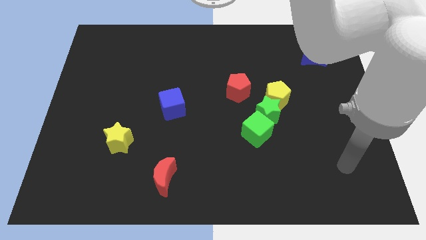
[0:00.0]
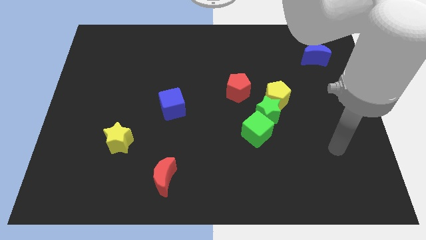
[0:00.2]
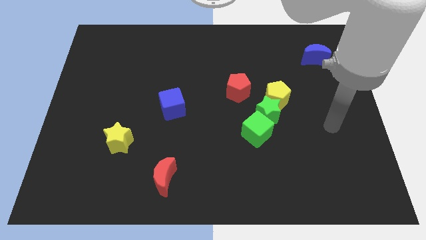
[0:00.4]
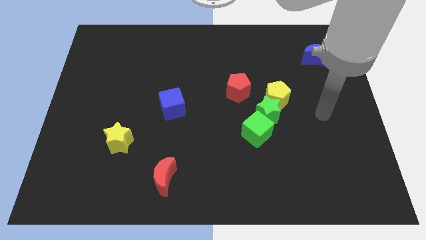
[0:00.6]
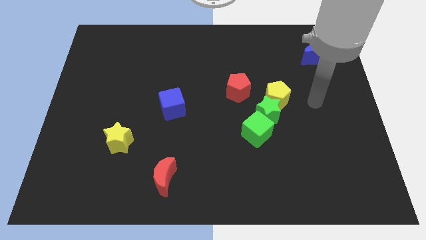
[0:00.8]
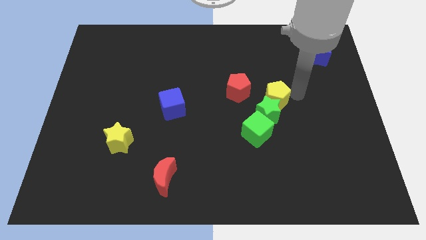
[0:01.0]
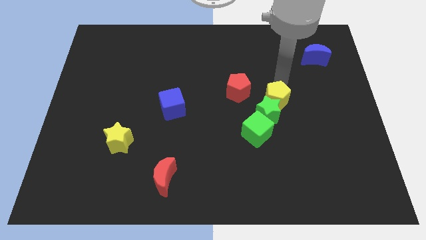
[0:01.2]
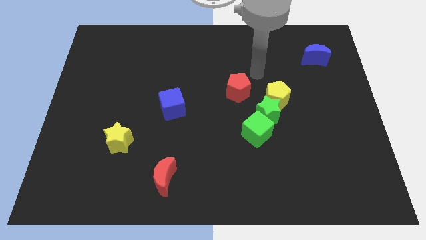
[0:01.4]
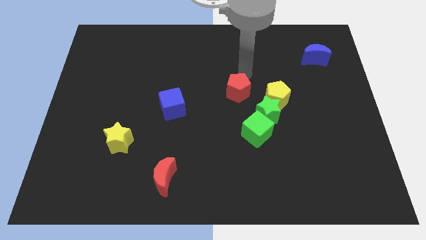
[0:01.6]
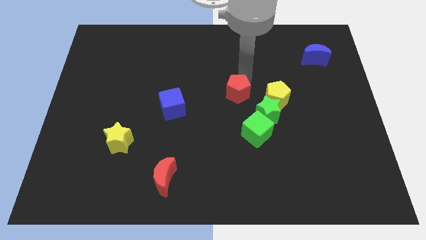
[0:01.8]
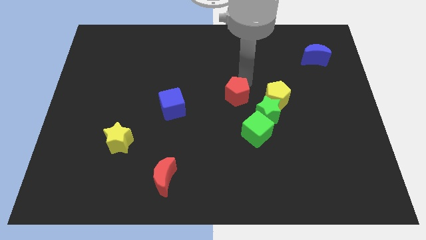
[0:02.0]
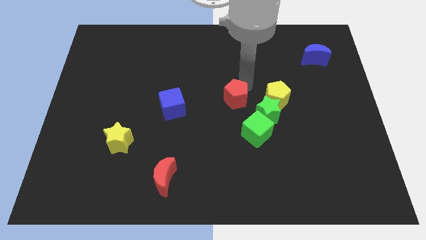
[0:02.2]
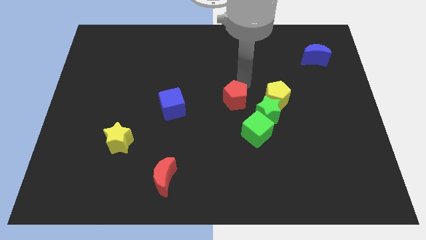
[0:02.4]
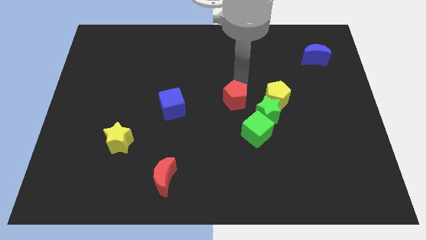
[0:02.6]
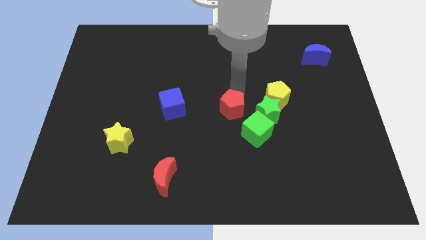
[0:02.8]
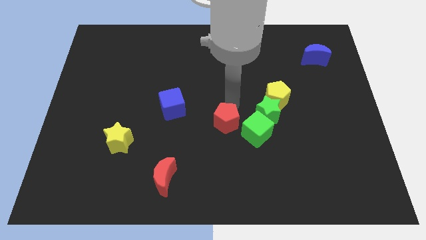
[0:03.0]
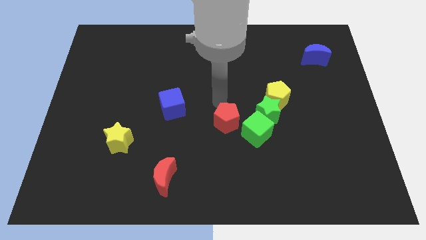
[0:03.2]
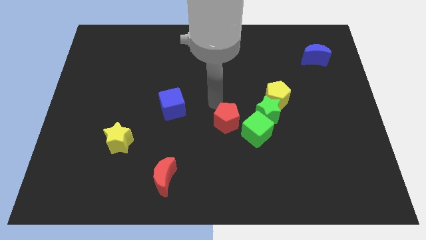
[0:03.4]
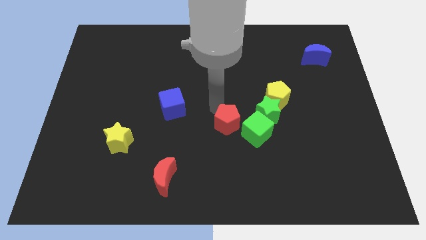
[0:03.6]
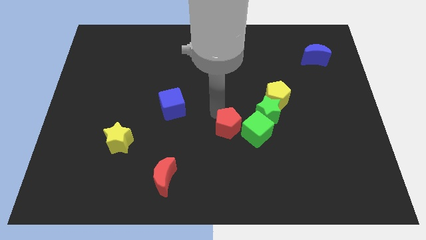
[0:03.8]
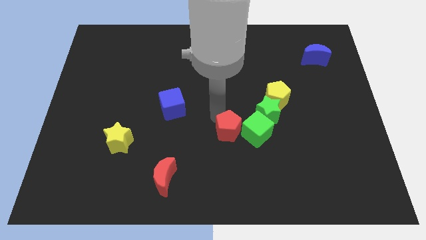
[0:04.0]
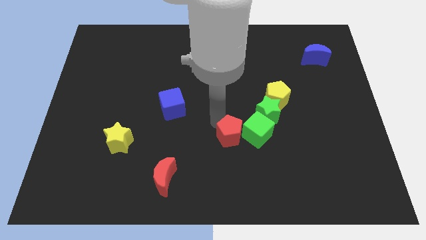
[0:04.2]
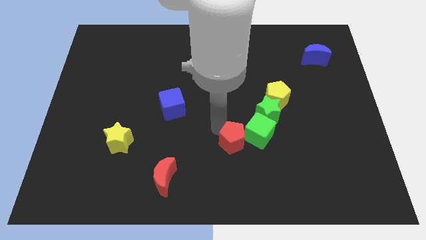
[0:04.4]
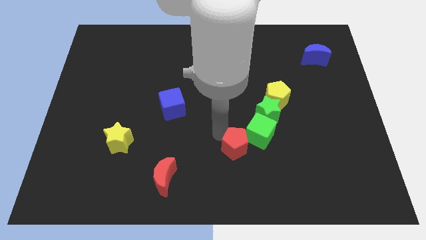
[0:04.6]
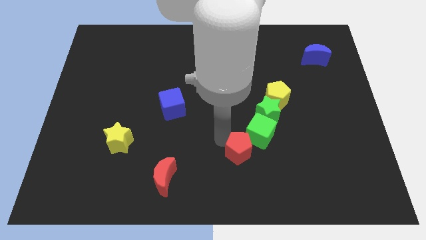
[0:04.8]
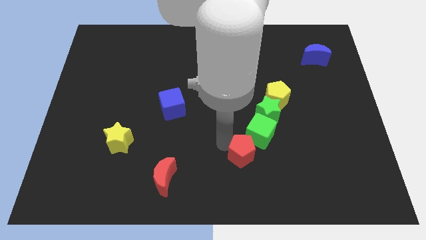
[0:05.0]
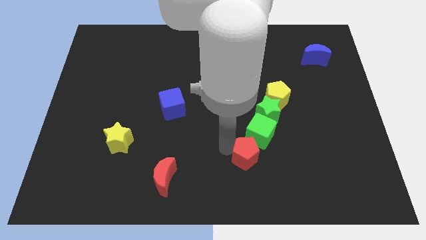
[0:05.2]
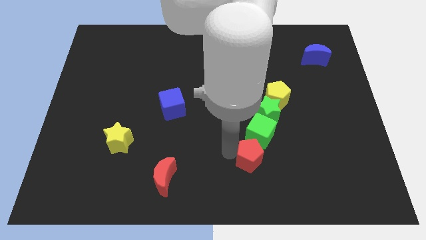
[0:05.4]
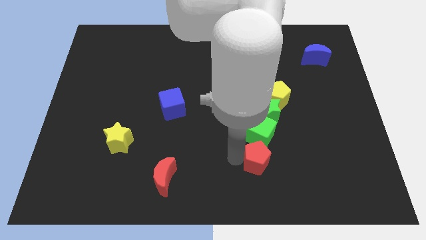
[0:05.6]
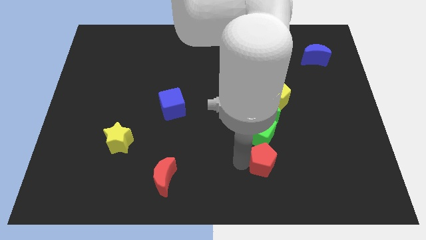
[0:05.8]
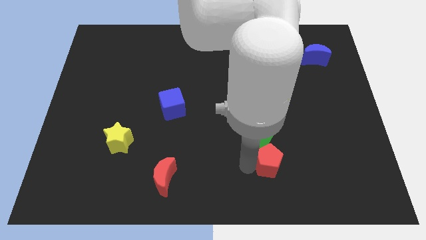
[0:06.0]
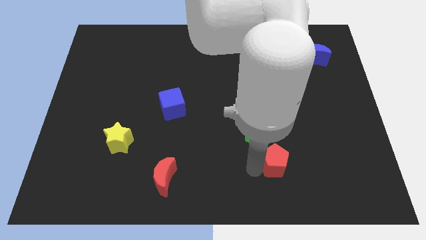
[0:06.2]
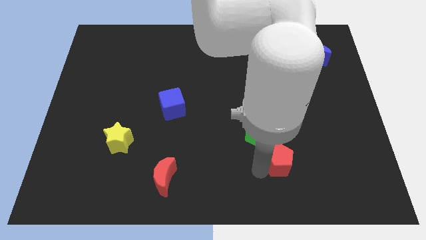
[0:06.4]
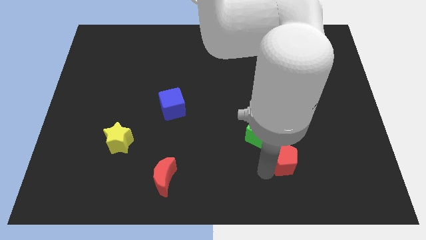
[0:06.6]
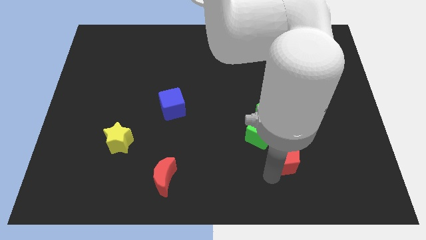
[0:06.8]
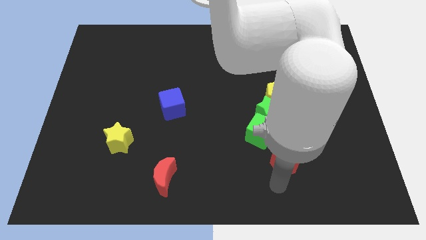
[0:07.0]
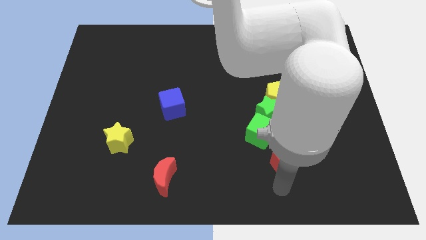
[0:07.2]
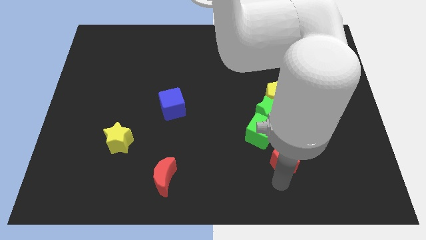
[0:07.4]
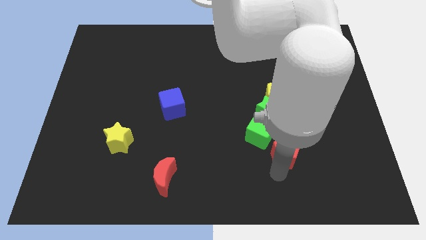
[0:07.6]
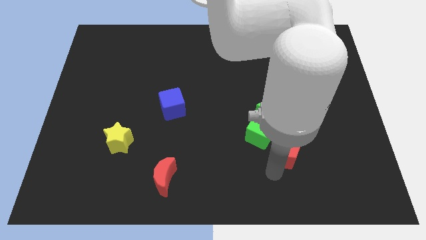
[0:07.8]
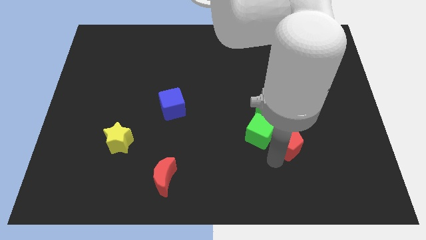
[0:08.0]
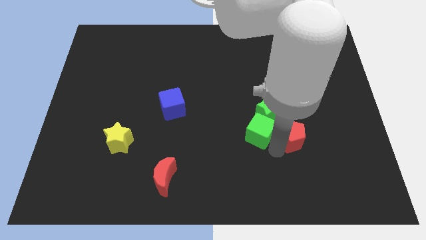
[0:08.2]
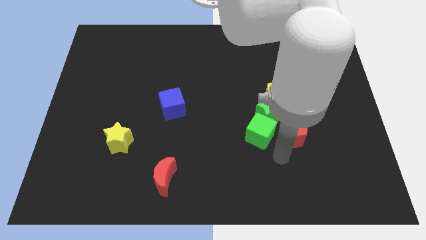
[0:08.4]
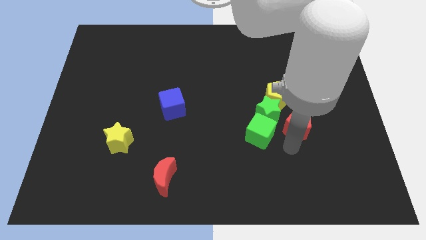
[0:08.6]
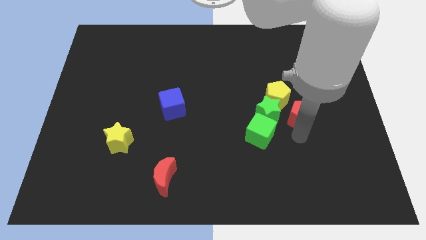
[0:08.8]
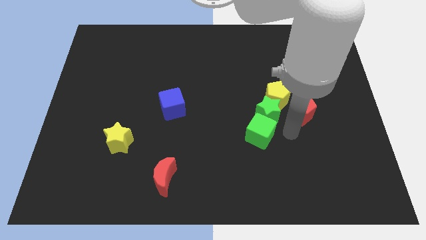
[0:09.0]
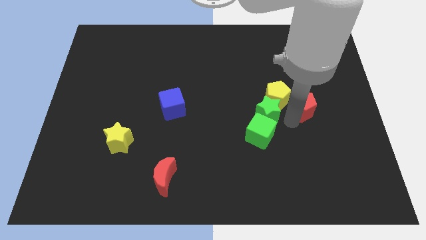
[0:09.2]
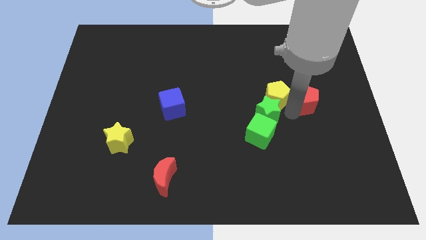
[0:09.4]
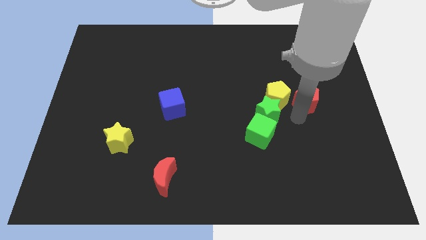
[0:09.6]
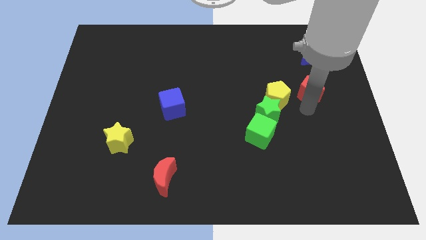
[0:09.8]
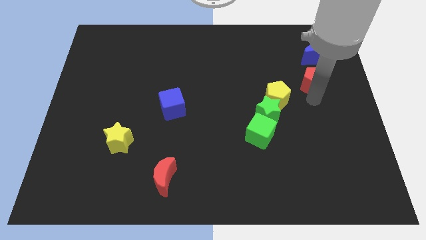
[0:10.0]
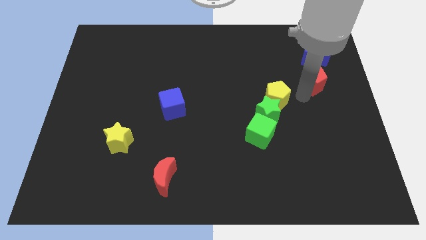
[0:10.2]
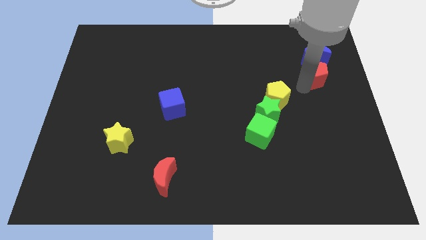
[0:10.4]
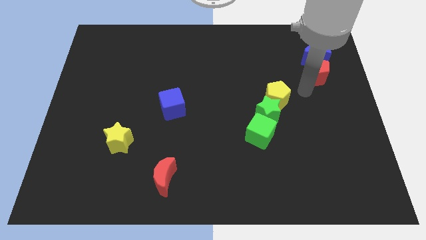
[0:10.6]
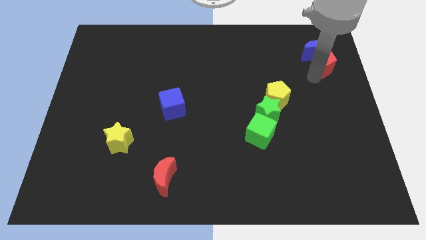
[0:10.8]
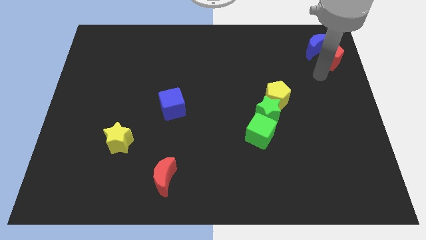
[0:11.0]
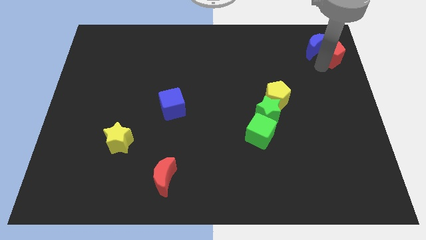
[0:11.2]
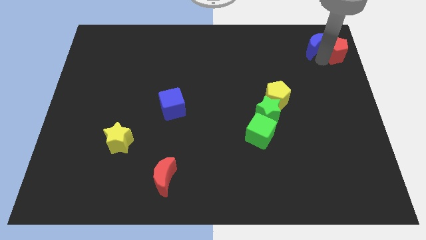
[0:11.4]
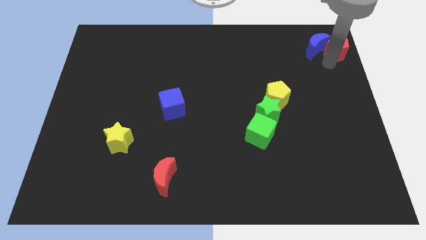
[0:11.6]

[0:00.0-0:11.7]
push the red pentagon to the top right of the board
